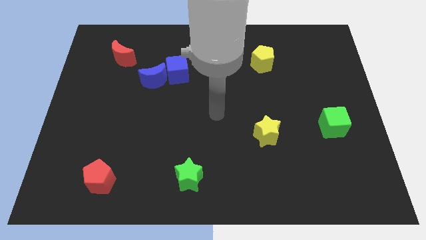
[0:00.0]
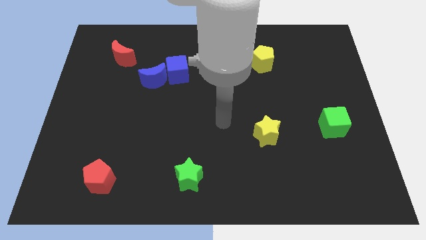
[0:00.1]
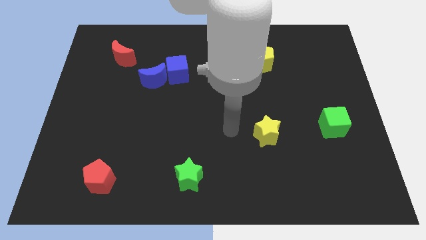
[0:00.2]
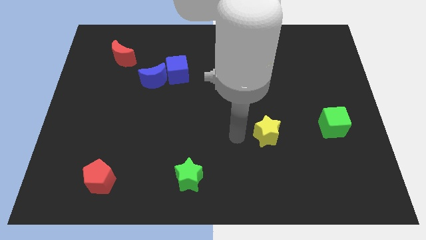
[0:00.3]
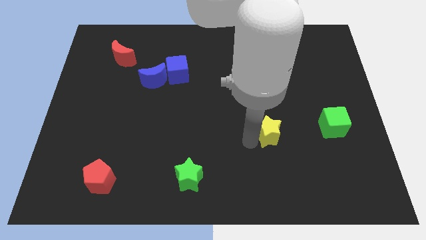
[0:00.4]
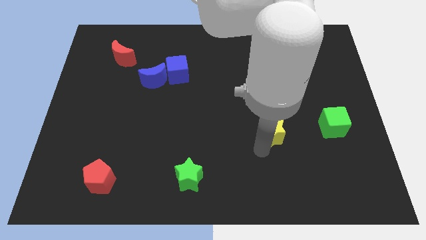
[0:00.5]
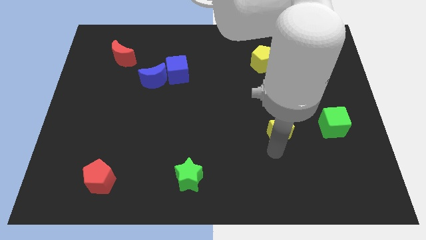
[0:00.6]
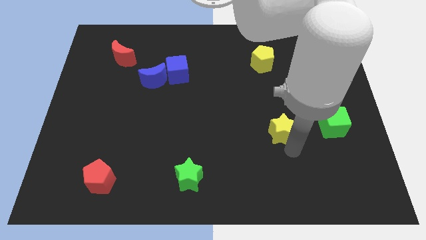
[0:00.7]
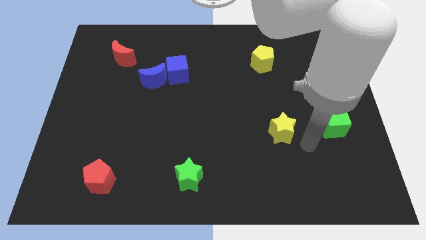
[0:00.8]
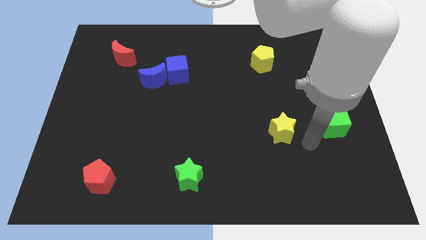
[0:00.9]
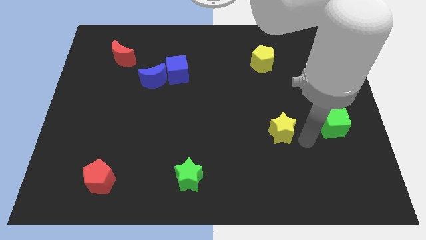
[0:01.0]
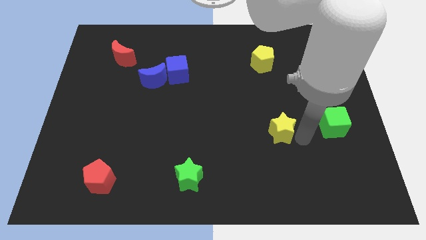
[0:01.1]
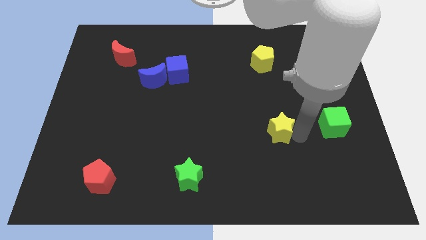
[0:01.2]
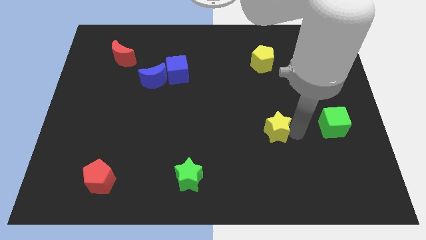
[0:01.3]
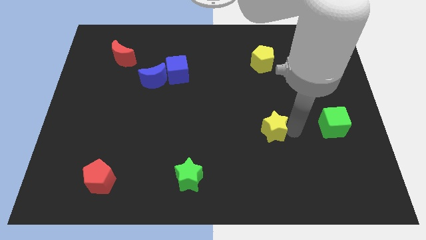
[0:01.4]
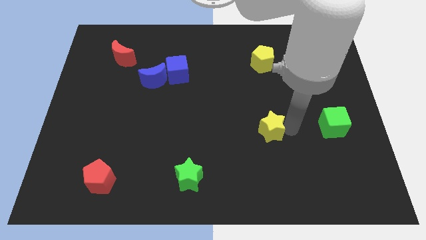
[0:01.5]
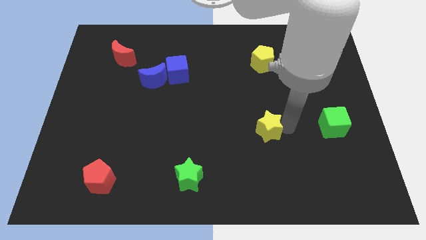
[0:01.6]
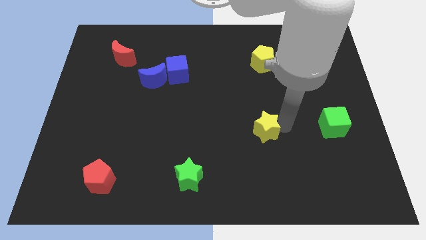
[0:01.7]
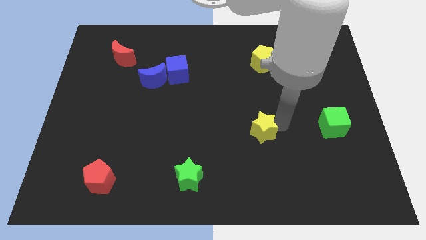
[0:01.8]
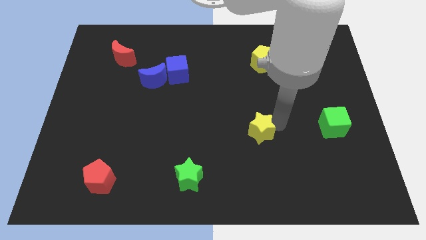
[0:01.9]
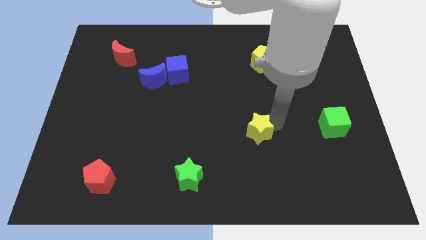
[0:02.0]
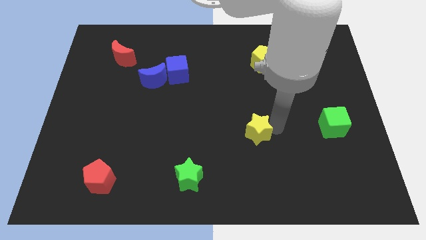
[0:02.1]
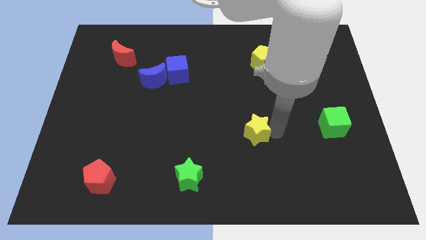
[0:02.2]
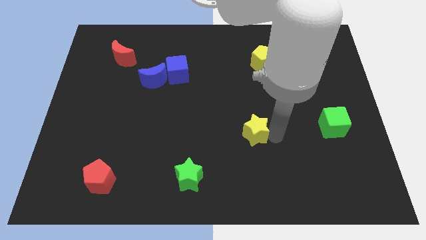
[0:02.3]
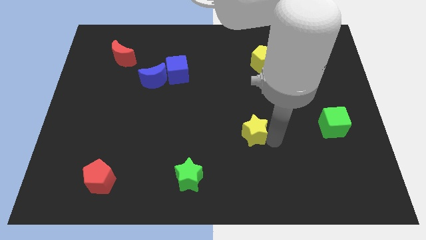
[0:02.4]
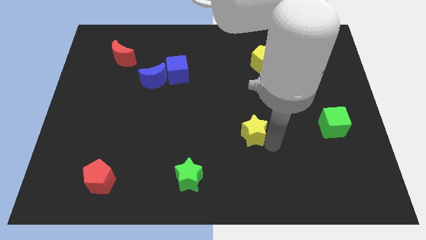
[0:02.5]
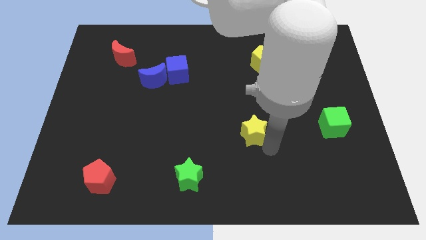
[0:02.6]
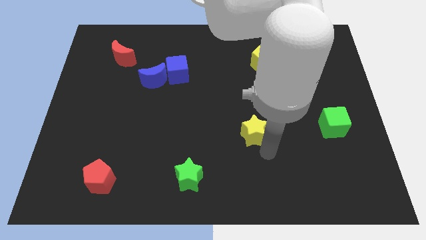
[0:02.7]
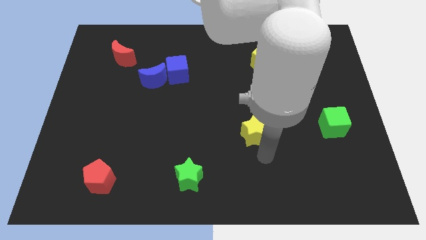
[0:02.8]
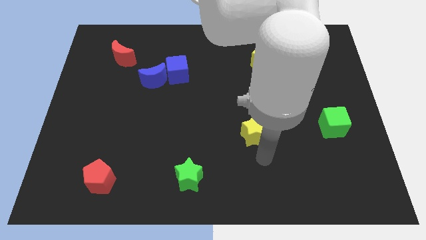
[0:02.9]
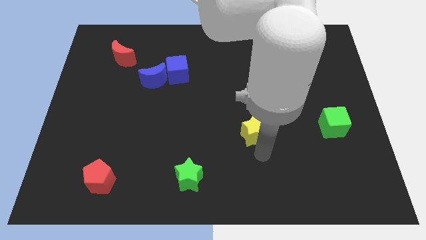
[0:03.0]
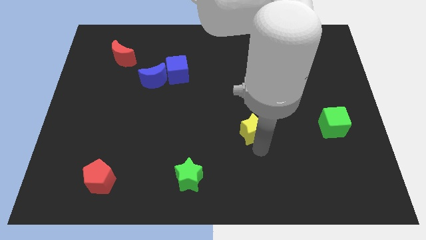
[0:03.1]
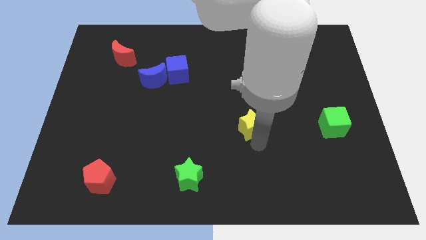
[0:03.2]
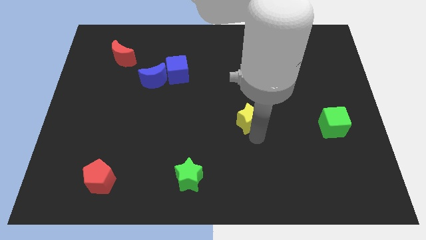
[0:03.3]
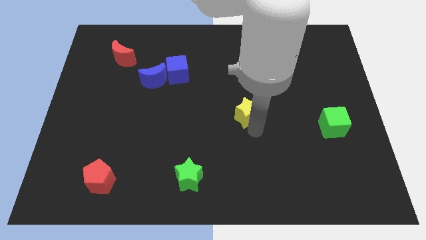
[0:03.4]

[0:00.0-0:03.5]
slide the yellow star diagonally up and to the left somewhat

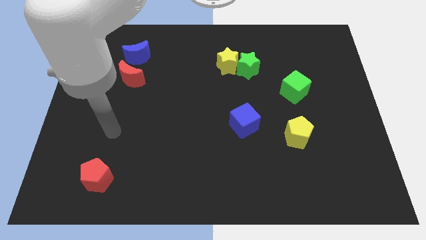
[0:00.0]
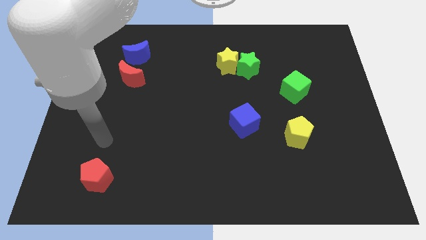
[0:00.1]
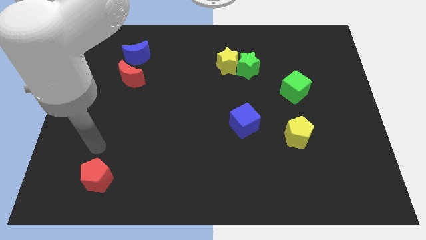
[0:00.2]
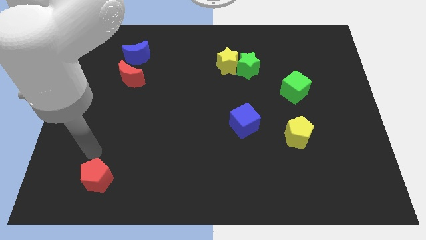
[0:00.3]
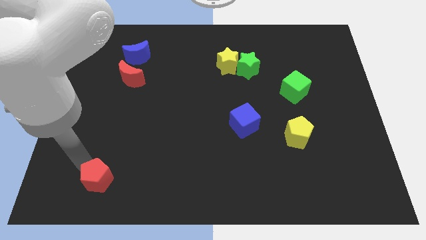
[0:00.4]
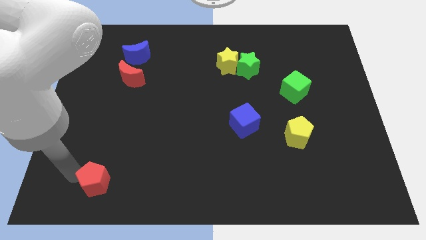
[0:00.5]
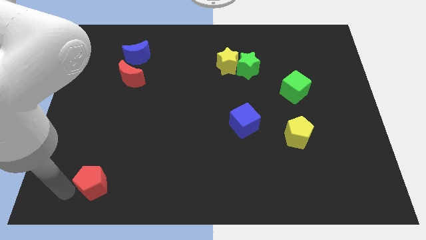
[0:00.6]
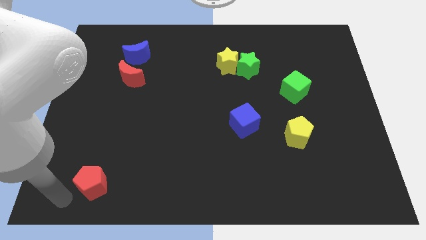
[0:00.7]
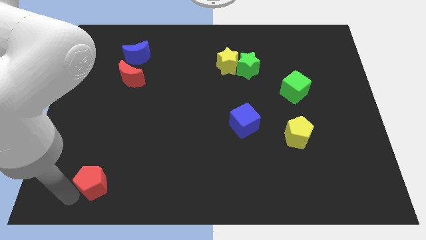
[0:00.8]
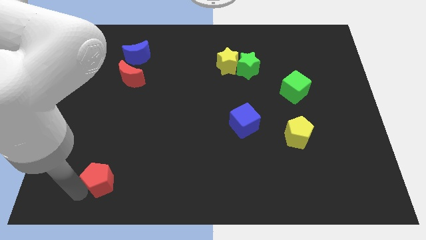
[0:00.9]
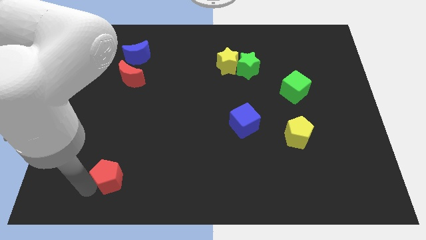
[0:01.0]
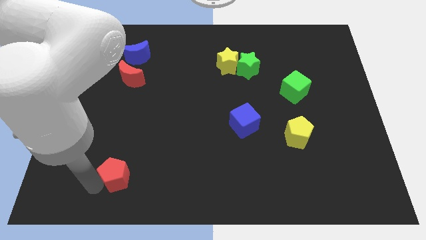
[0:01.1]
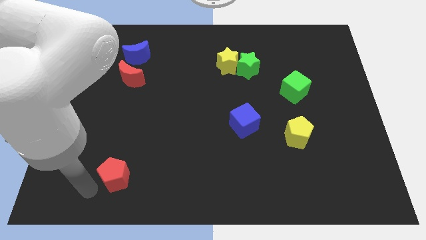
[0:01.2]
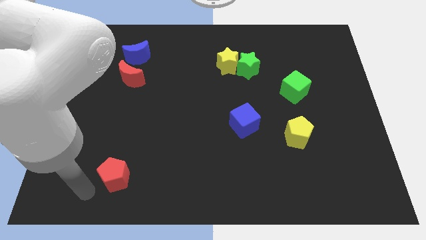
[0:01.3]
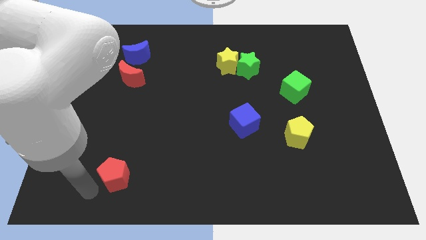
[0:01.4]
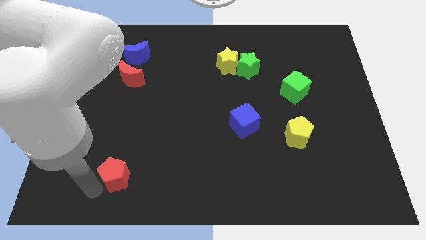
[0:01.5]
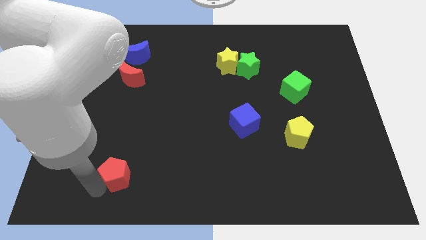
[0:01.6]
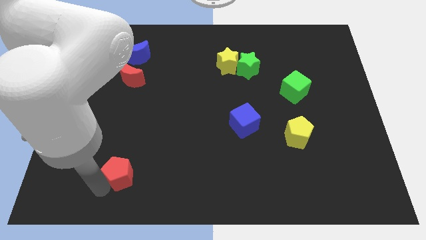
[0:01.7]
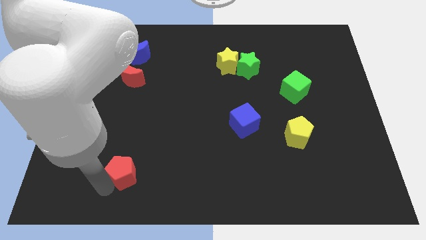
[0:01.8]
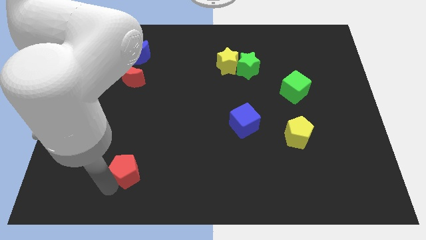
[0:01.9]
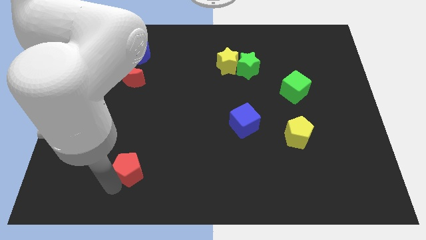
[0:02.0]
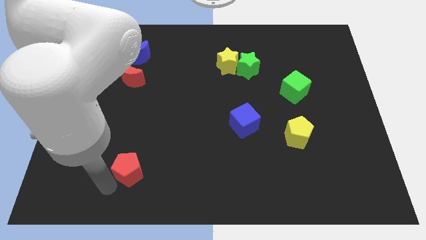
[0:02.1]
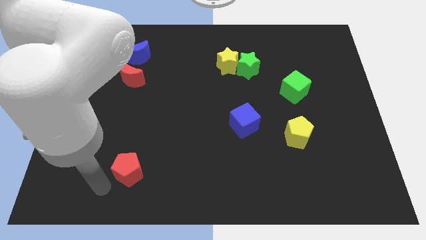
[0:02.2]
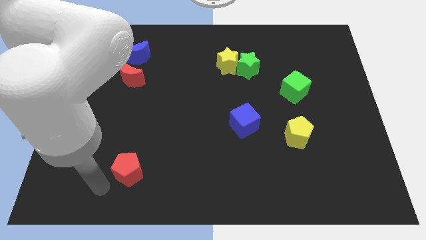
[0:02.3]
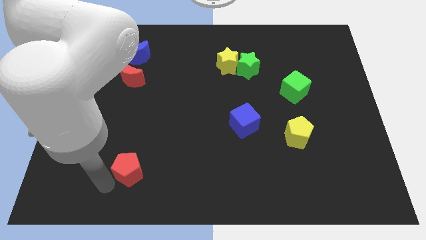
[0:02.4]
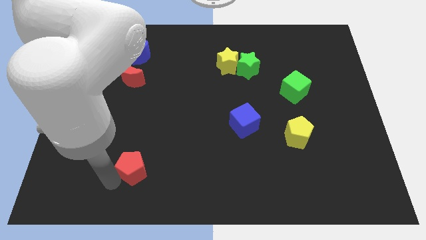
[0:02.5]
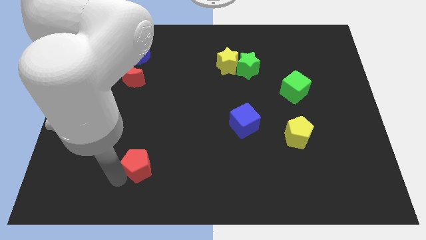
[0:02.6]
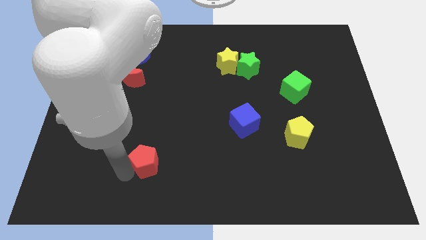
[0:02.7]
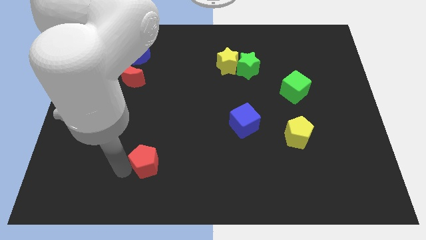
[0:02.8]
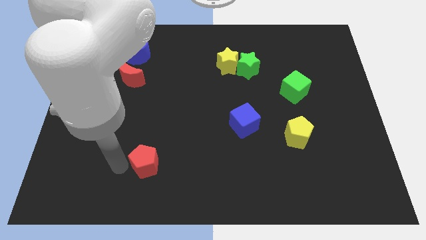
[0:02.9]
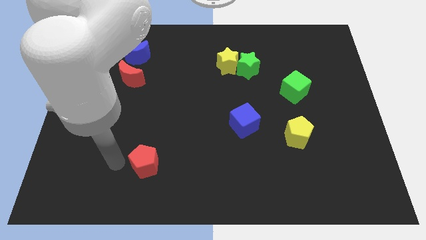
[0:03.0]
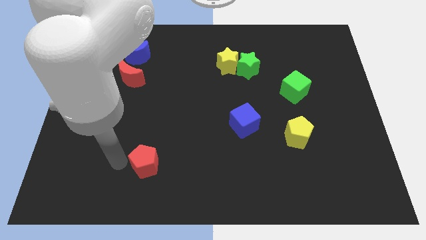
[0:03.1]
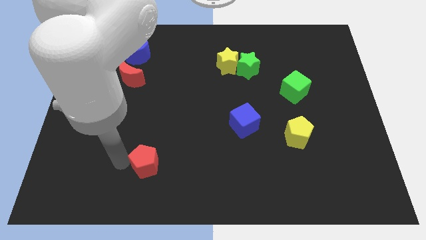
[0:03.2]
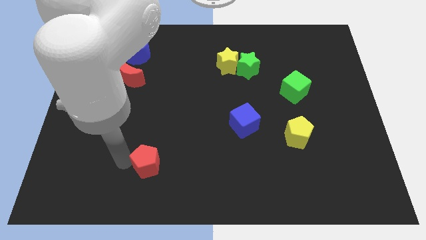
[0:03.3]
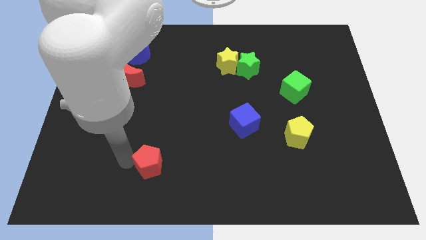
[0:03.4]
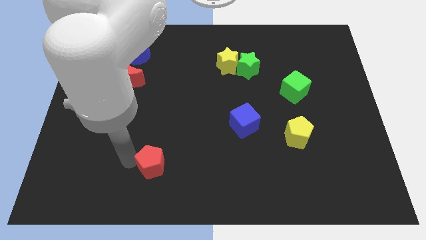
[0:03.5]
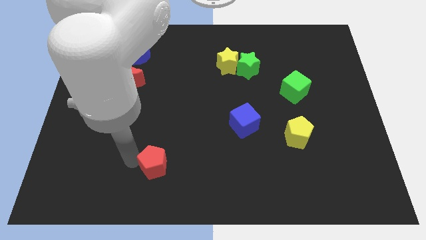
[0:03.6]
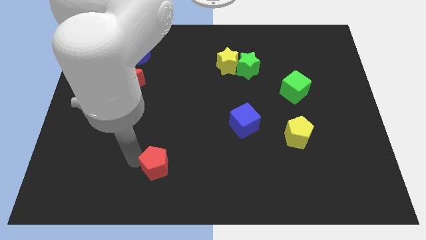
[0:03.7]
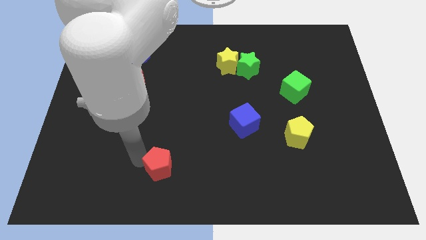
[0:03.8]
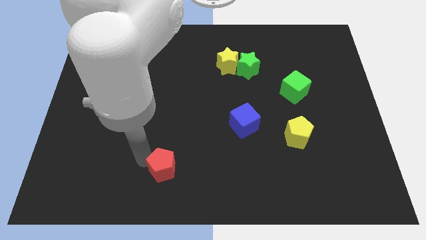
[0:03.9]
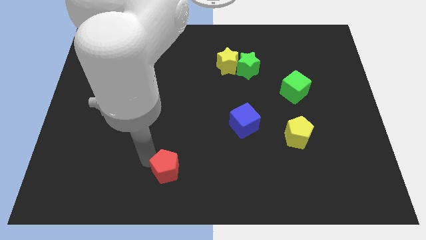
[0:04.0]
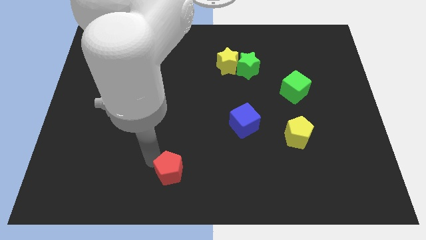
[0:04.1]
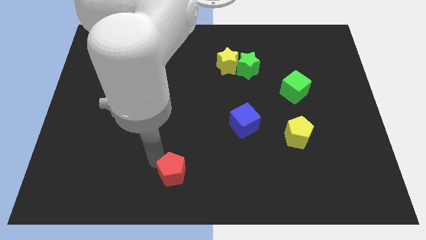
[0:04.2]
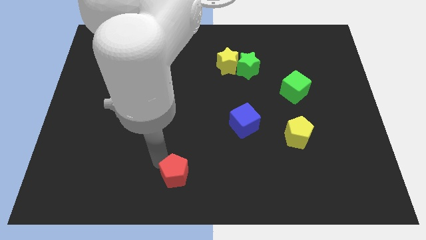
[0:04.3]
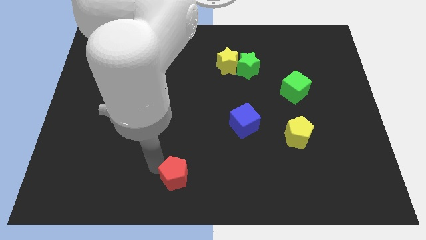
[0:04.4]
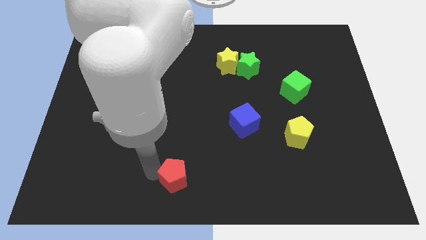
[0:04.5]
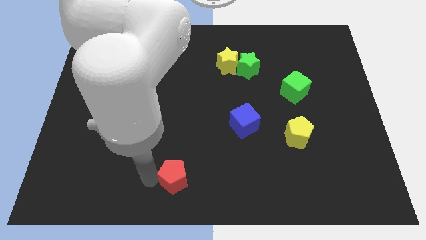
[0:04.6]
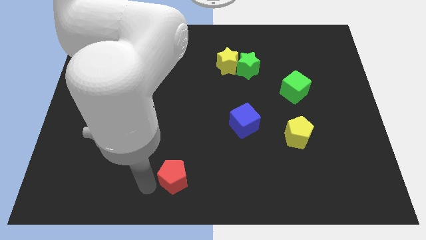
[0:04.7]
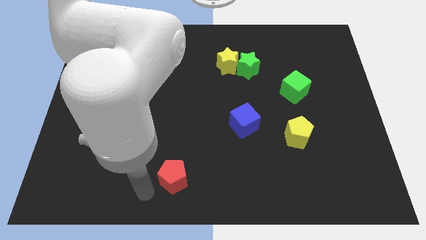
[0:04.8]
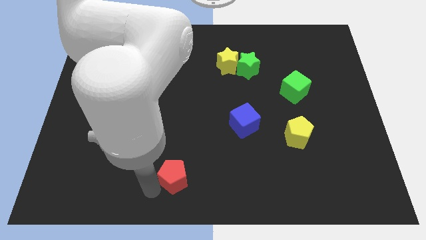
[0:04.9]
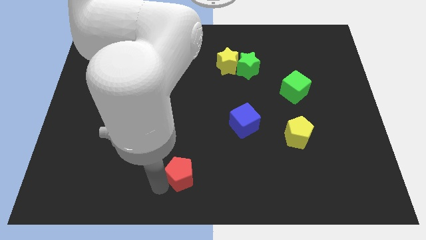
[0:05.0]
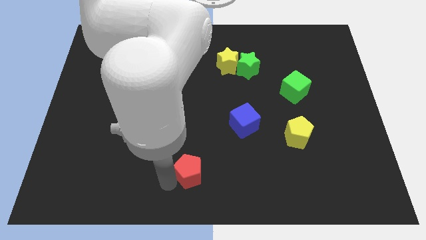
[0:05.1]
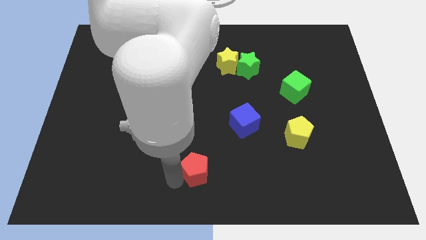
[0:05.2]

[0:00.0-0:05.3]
push the red pentagon right
